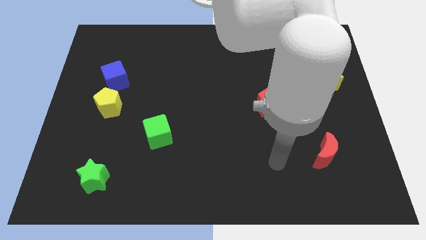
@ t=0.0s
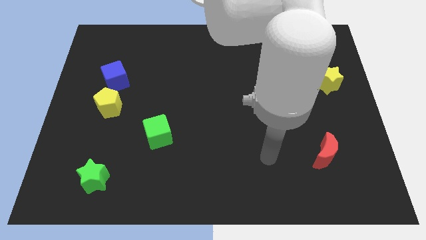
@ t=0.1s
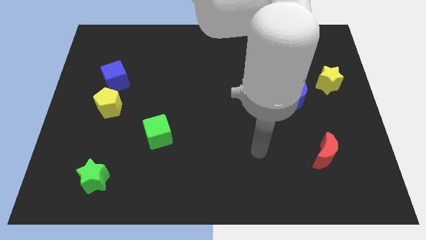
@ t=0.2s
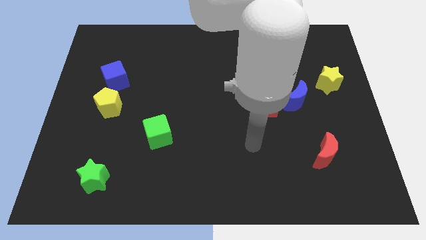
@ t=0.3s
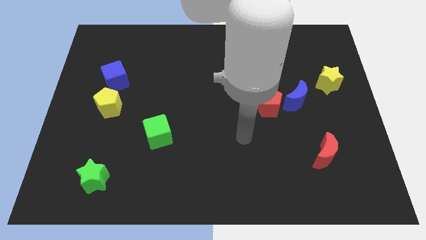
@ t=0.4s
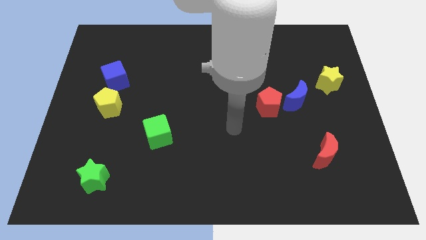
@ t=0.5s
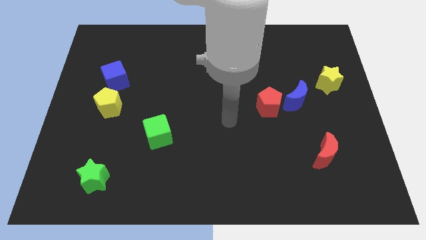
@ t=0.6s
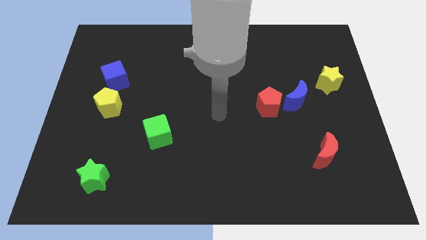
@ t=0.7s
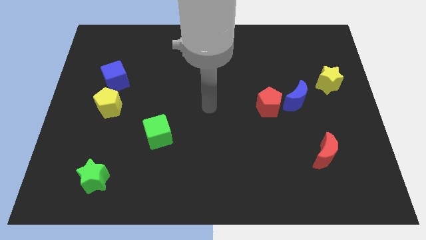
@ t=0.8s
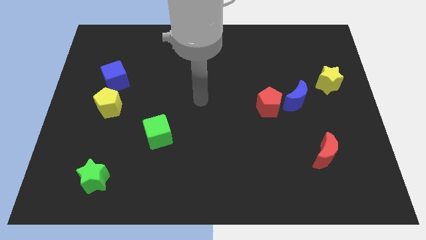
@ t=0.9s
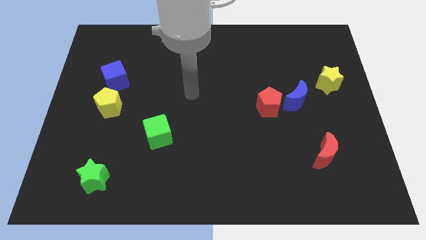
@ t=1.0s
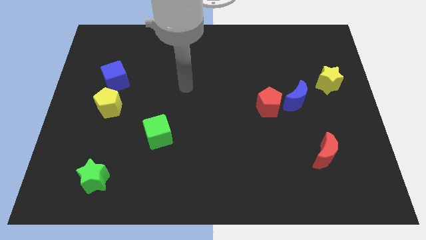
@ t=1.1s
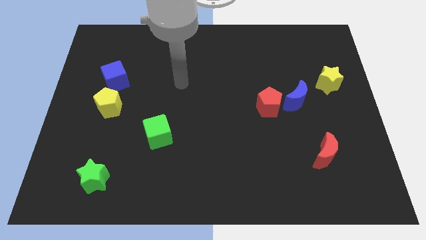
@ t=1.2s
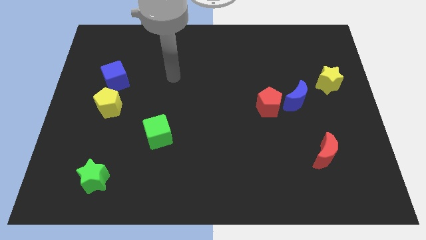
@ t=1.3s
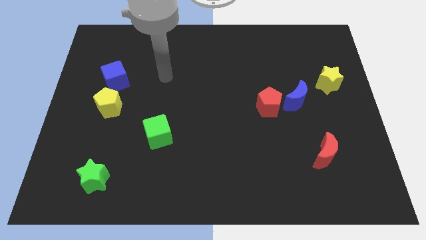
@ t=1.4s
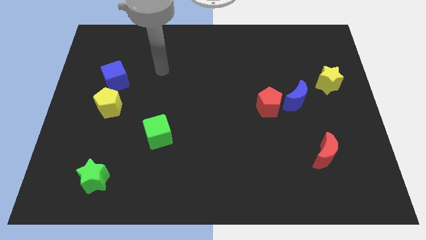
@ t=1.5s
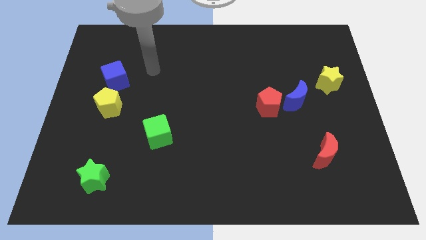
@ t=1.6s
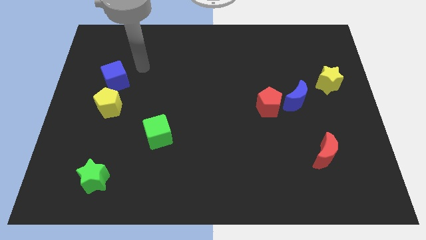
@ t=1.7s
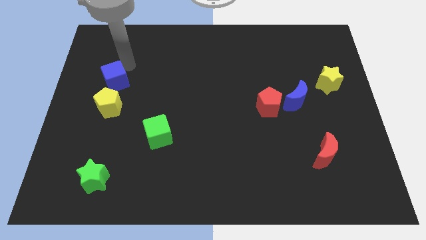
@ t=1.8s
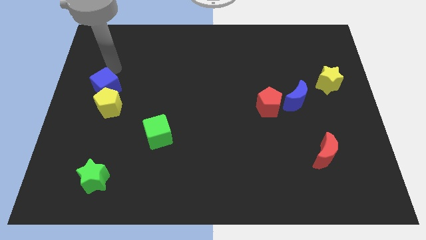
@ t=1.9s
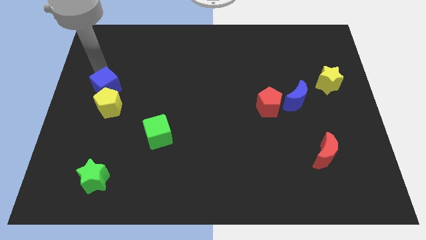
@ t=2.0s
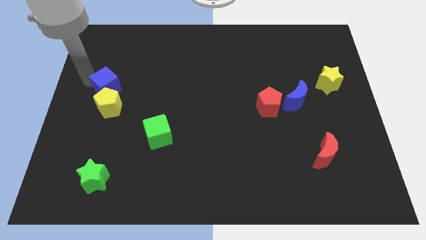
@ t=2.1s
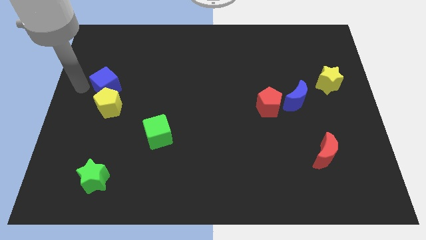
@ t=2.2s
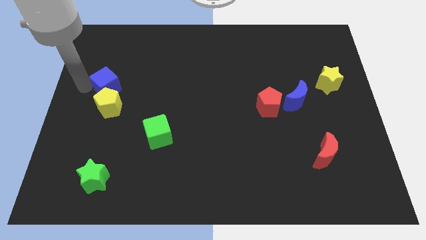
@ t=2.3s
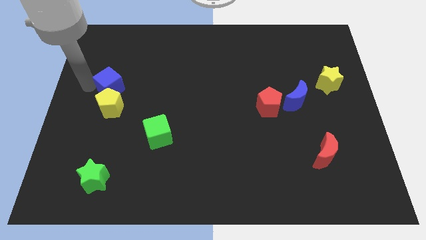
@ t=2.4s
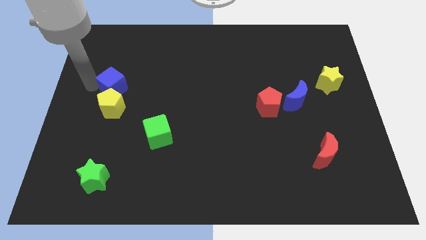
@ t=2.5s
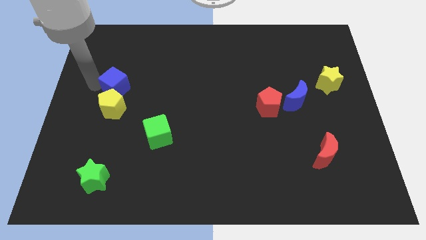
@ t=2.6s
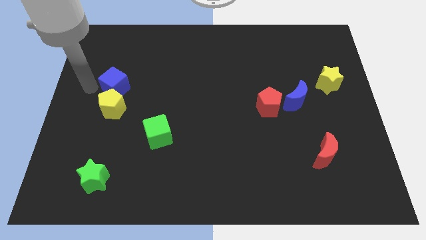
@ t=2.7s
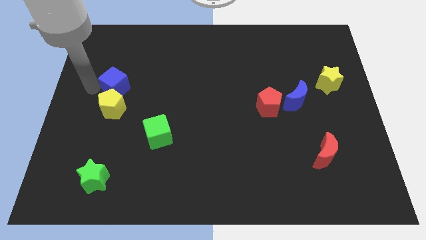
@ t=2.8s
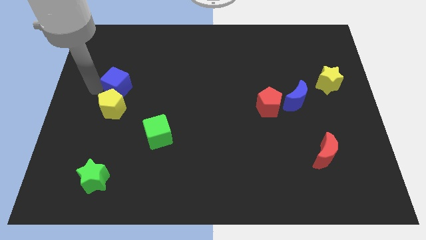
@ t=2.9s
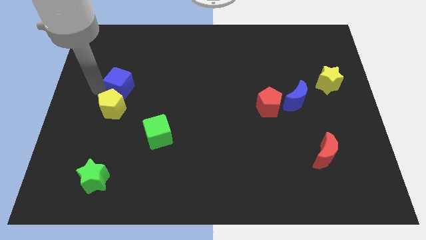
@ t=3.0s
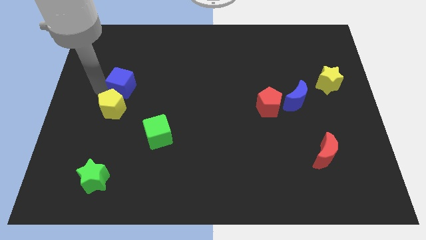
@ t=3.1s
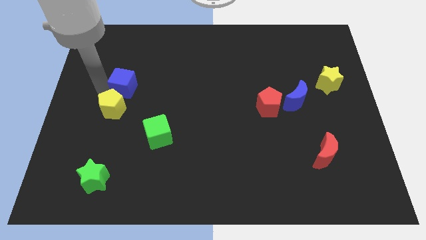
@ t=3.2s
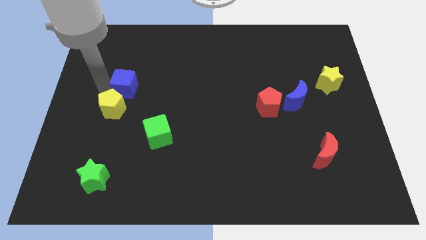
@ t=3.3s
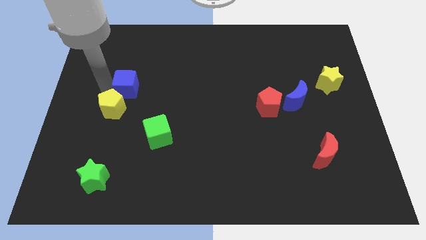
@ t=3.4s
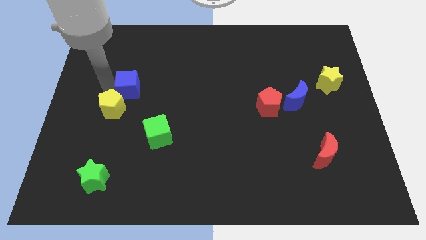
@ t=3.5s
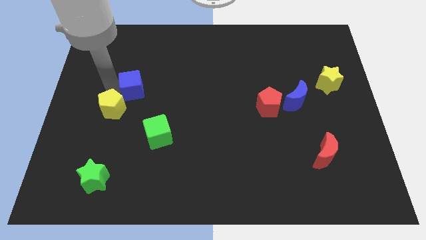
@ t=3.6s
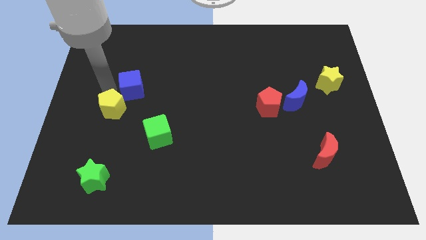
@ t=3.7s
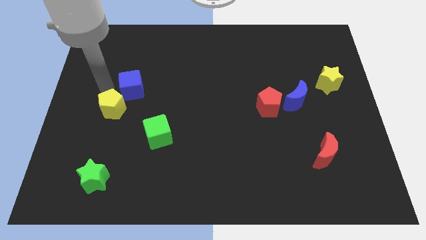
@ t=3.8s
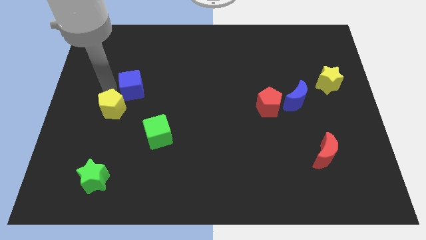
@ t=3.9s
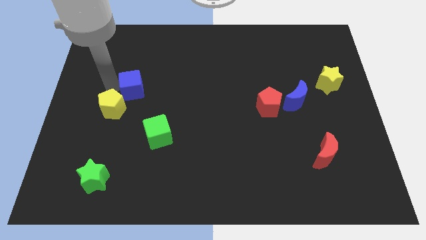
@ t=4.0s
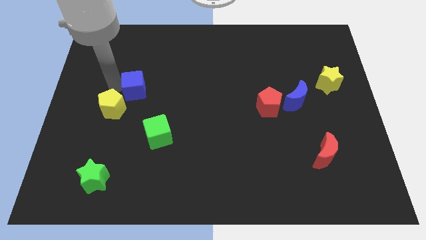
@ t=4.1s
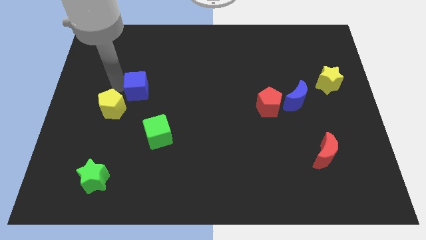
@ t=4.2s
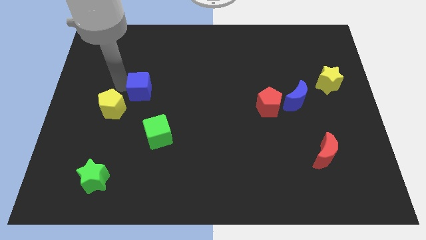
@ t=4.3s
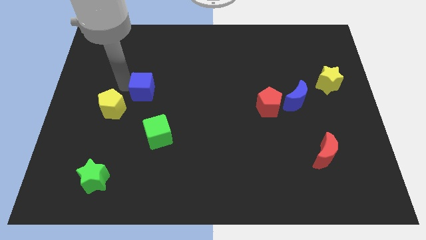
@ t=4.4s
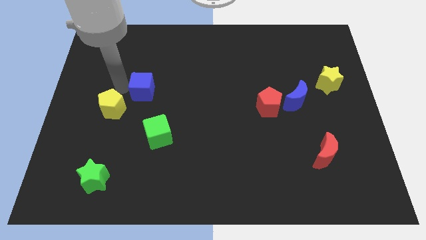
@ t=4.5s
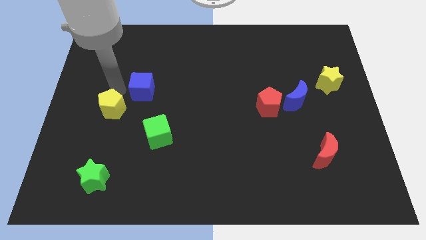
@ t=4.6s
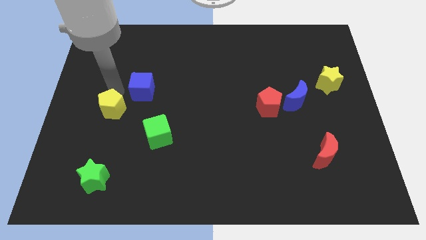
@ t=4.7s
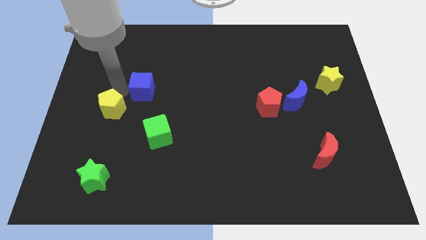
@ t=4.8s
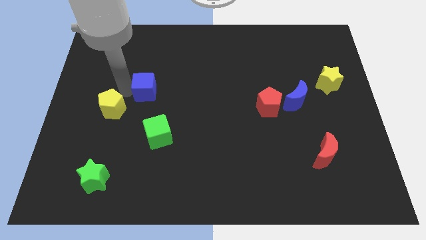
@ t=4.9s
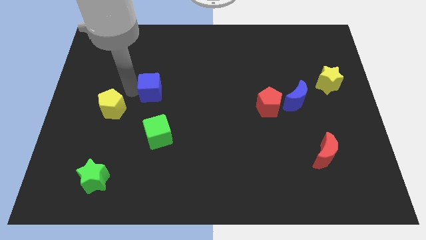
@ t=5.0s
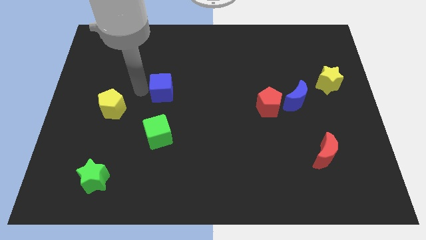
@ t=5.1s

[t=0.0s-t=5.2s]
push the blue cube to the center of the board

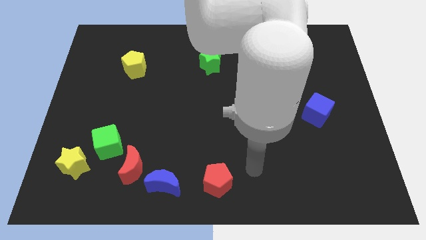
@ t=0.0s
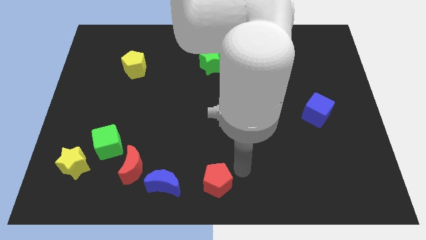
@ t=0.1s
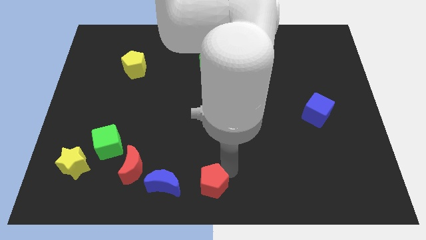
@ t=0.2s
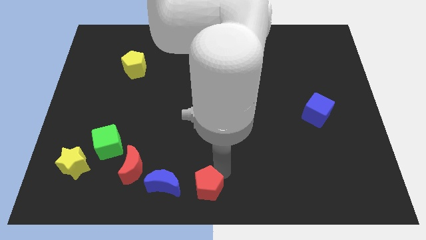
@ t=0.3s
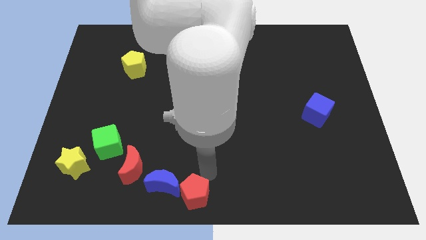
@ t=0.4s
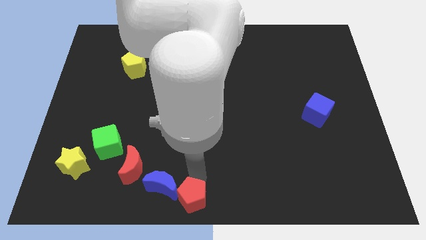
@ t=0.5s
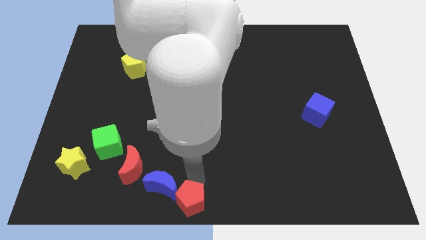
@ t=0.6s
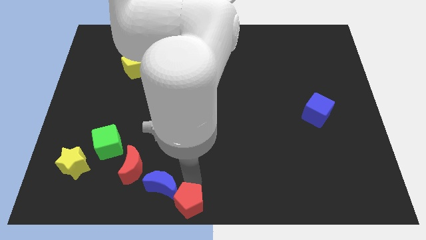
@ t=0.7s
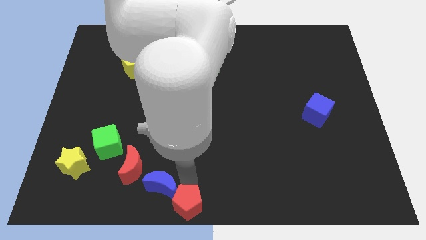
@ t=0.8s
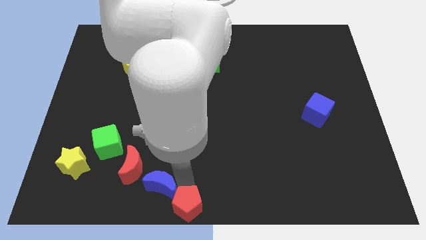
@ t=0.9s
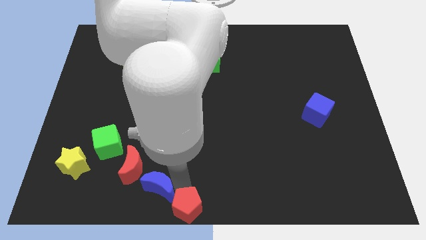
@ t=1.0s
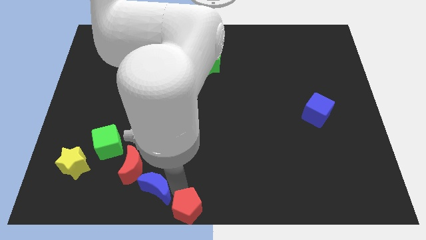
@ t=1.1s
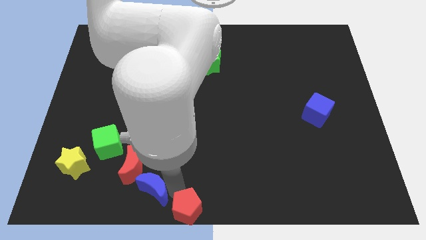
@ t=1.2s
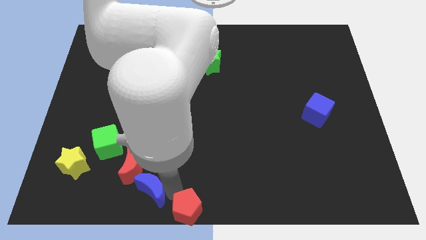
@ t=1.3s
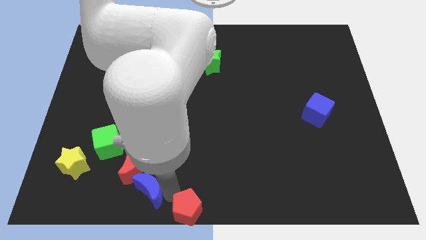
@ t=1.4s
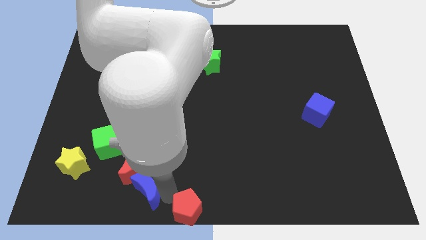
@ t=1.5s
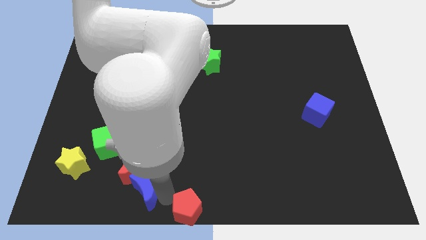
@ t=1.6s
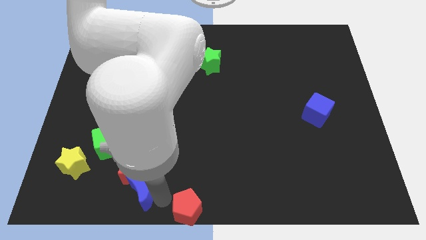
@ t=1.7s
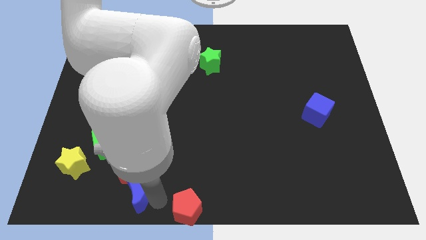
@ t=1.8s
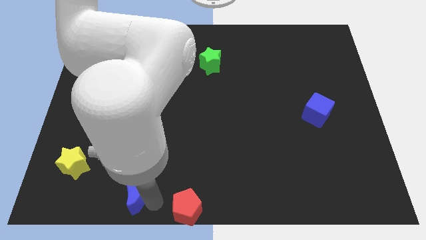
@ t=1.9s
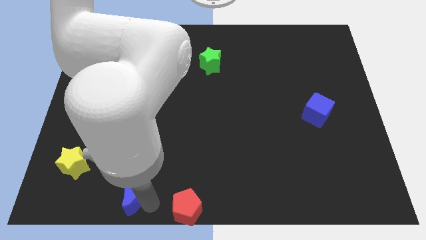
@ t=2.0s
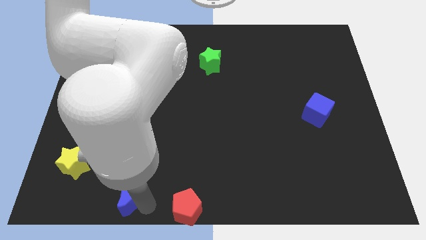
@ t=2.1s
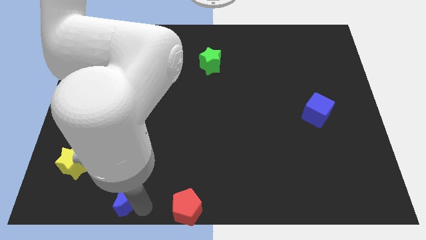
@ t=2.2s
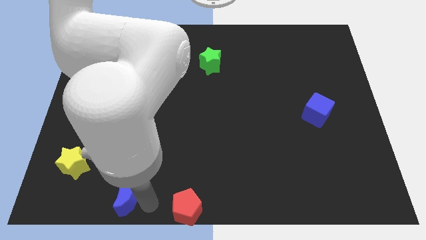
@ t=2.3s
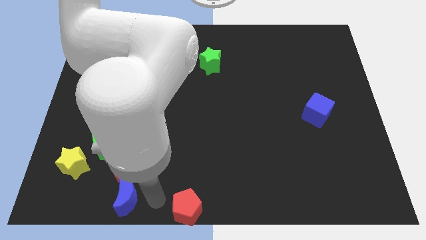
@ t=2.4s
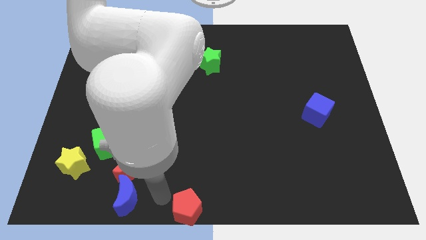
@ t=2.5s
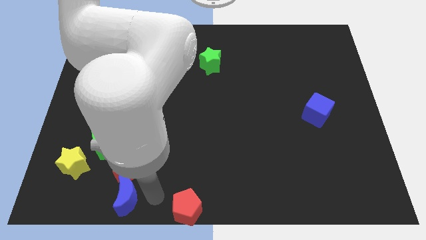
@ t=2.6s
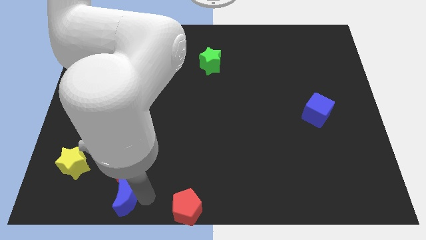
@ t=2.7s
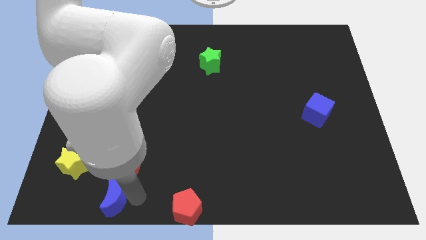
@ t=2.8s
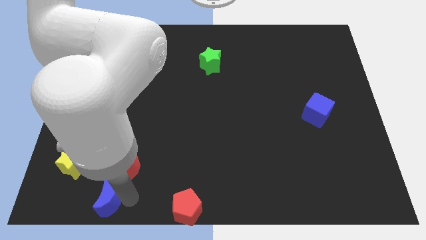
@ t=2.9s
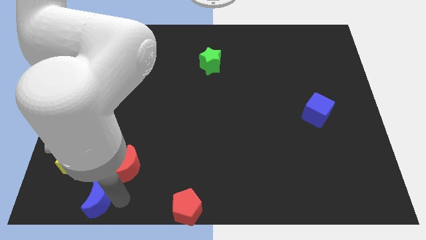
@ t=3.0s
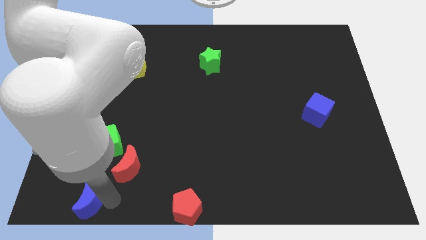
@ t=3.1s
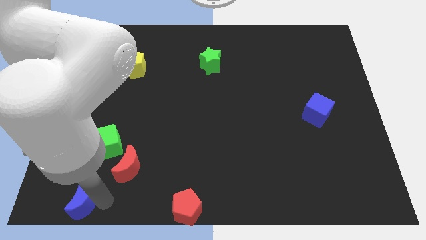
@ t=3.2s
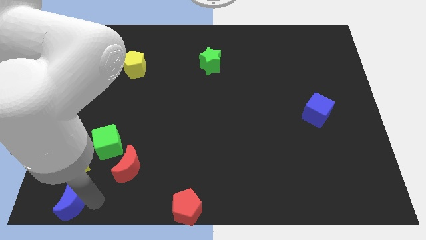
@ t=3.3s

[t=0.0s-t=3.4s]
push the blue moon to the bottom left corner
